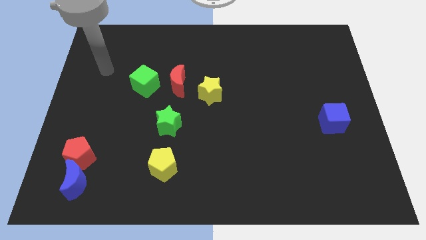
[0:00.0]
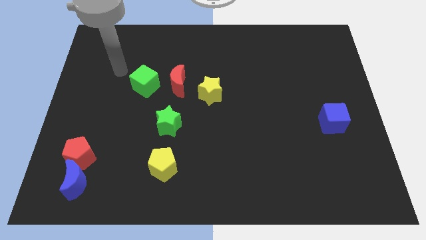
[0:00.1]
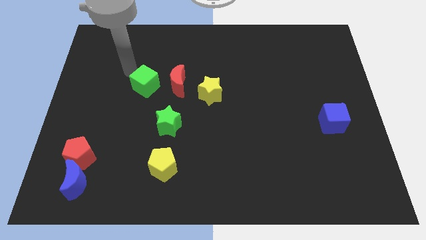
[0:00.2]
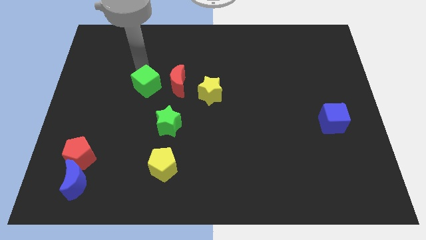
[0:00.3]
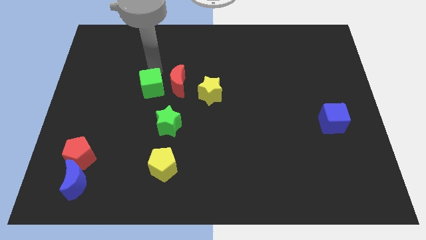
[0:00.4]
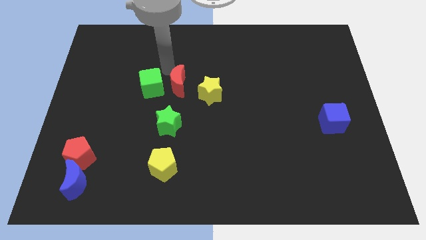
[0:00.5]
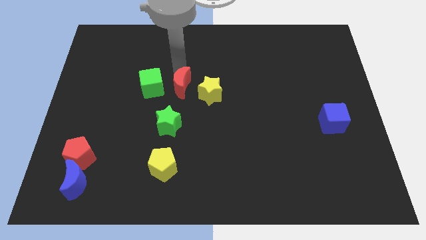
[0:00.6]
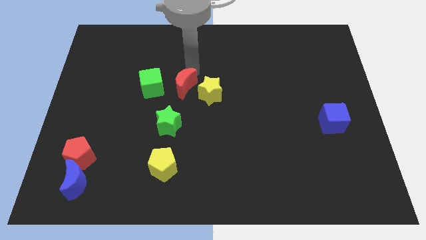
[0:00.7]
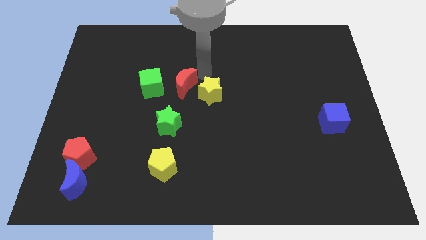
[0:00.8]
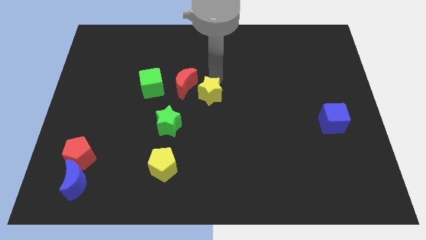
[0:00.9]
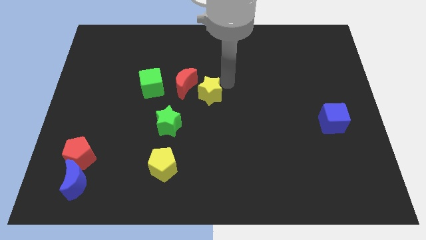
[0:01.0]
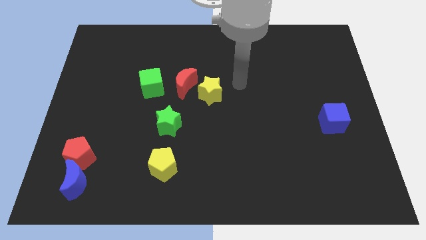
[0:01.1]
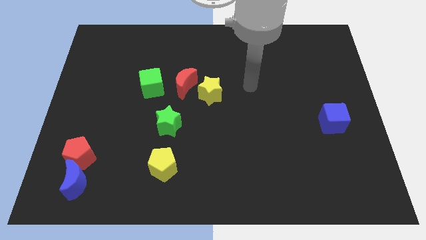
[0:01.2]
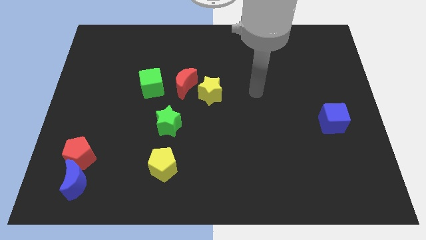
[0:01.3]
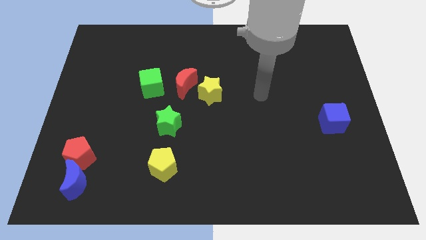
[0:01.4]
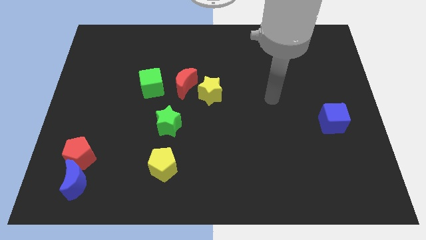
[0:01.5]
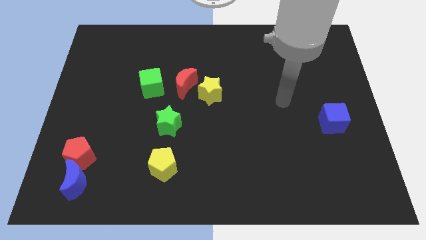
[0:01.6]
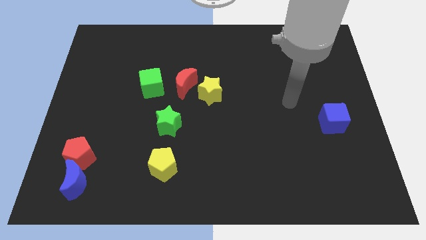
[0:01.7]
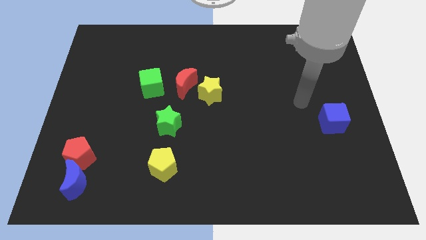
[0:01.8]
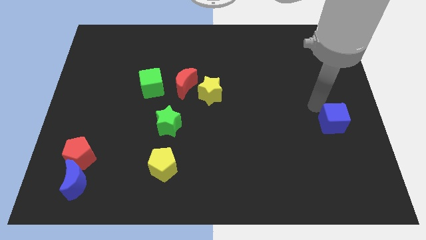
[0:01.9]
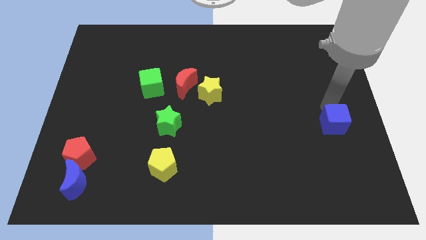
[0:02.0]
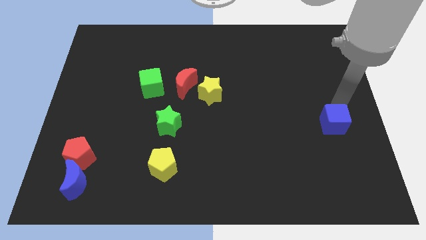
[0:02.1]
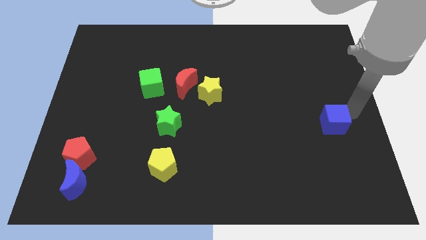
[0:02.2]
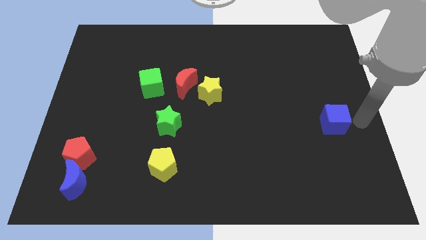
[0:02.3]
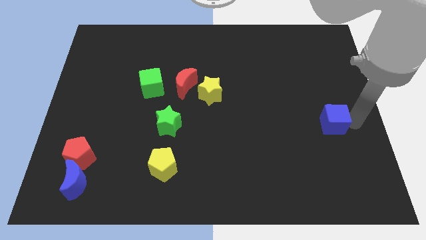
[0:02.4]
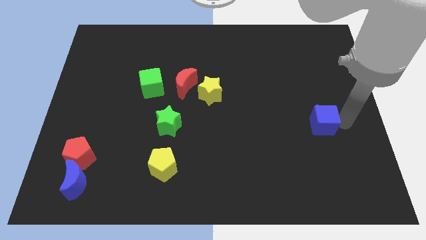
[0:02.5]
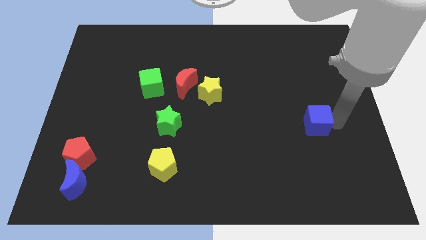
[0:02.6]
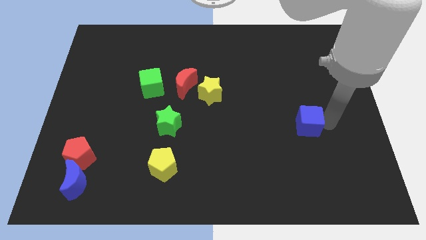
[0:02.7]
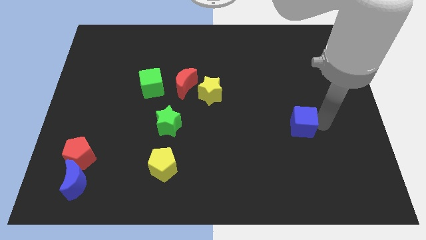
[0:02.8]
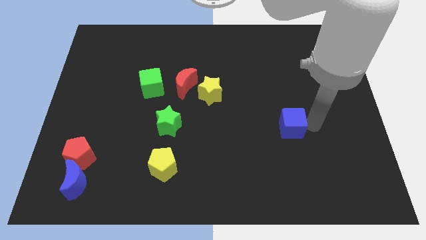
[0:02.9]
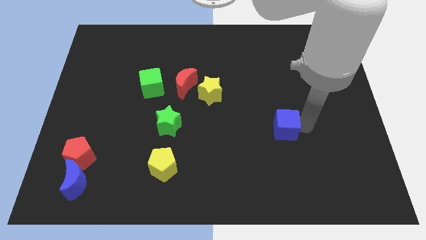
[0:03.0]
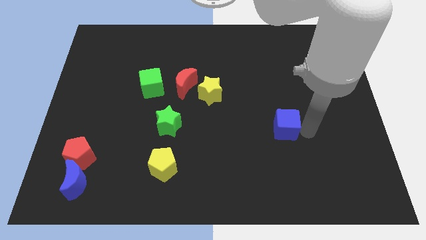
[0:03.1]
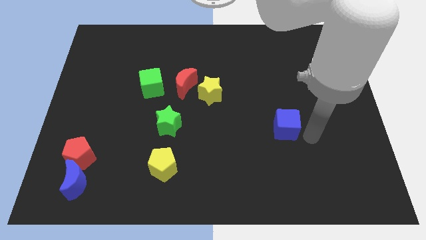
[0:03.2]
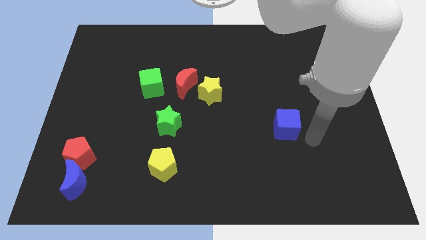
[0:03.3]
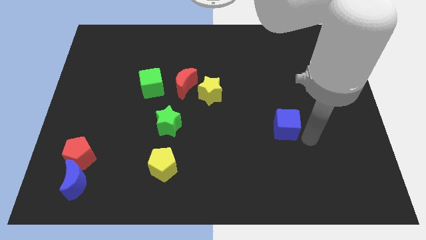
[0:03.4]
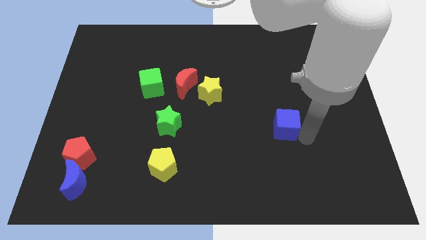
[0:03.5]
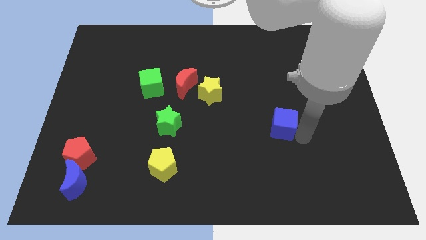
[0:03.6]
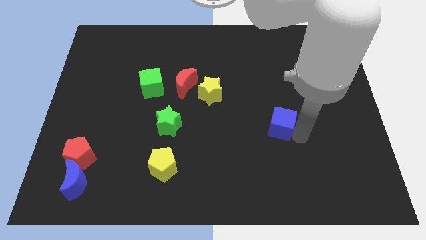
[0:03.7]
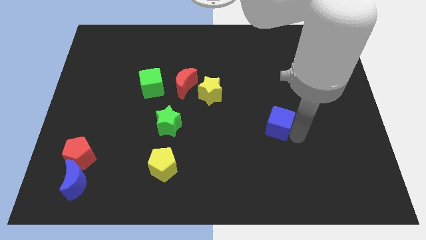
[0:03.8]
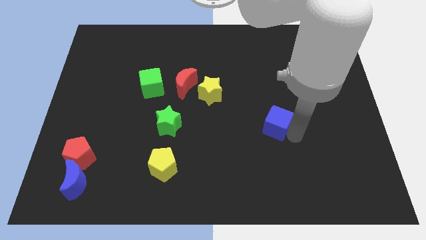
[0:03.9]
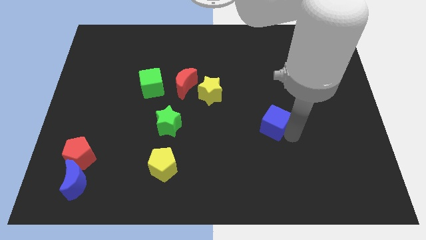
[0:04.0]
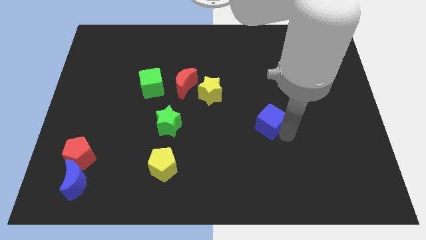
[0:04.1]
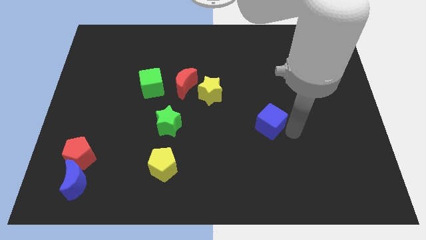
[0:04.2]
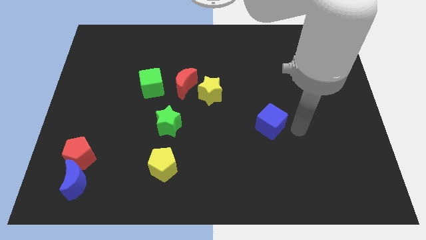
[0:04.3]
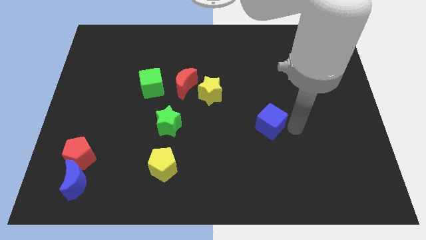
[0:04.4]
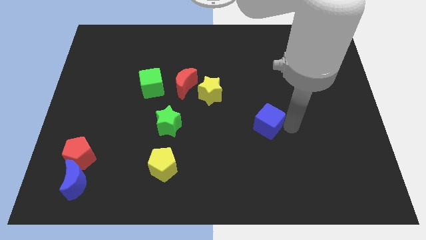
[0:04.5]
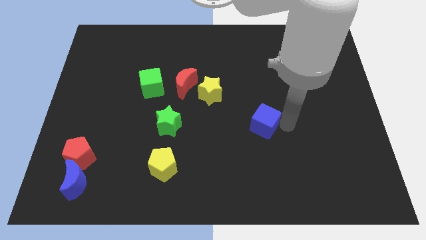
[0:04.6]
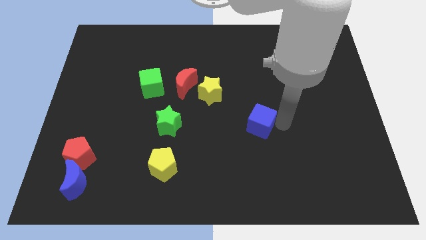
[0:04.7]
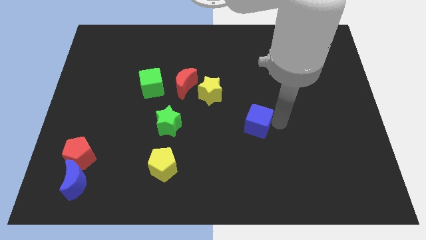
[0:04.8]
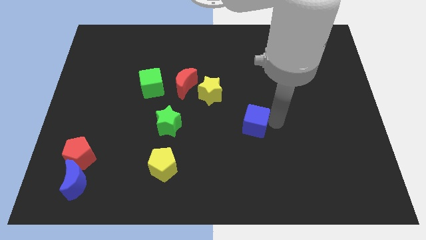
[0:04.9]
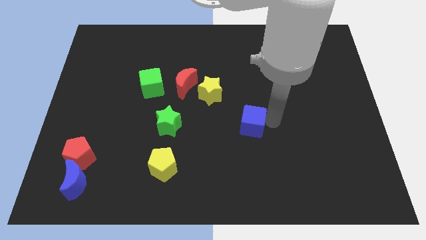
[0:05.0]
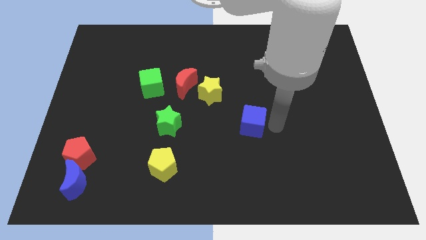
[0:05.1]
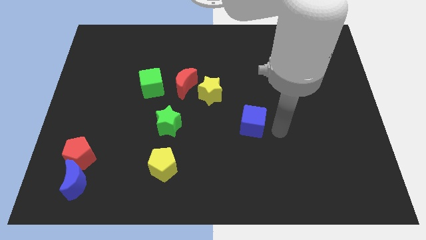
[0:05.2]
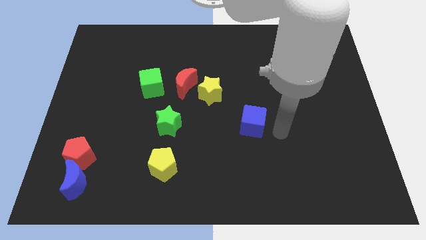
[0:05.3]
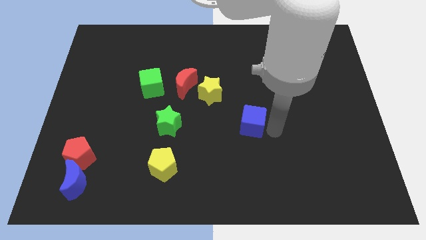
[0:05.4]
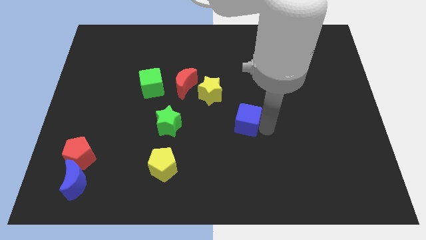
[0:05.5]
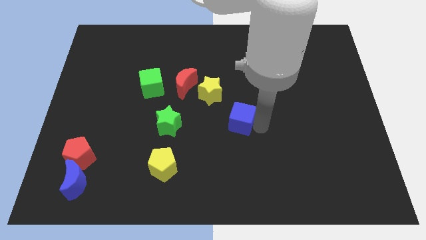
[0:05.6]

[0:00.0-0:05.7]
push the blue cube to the left

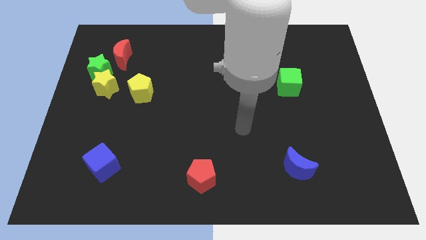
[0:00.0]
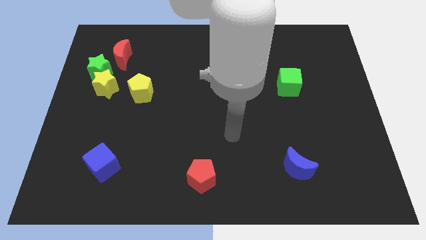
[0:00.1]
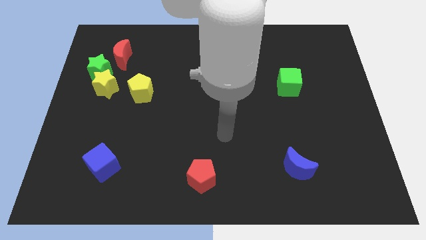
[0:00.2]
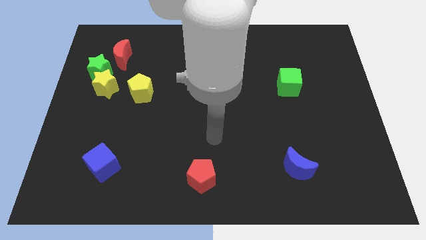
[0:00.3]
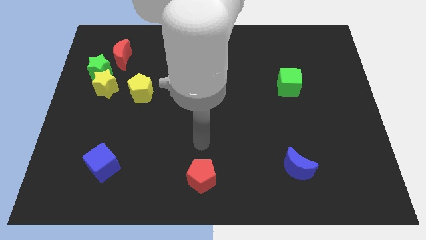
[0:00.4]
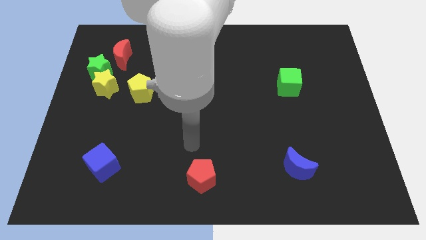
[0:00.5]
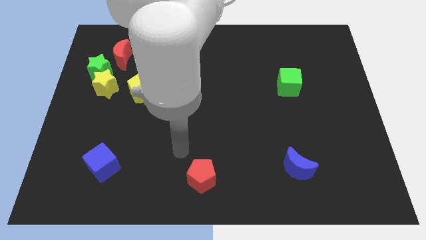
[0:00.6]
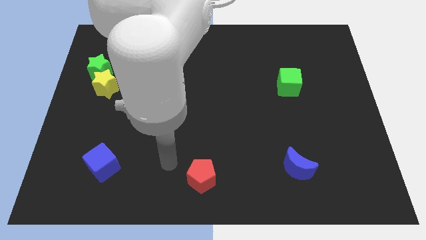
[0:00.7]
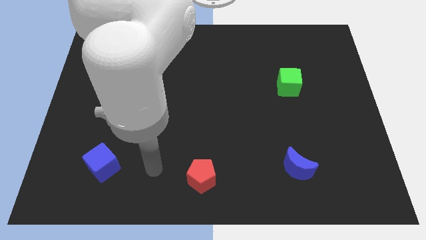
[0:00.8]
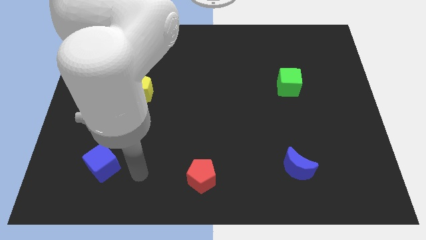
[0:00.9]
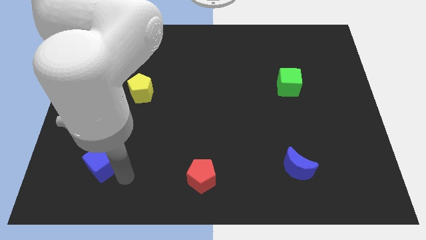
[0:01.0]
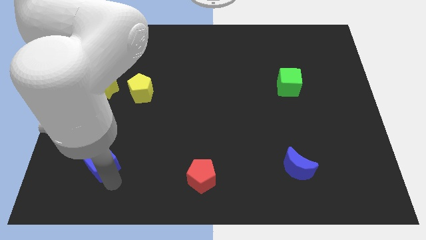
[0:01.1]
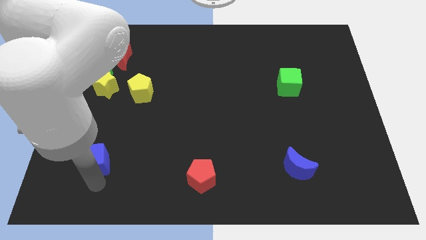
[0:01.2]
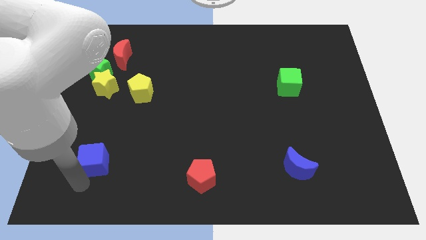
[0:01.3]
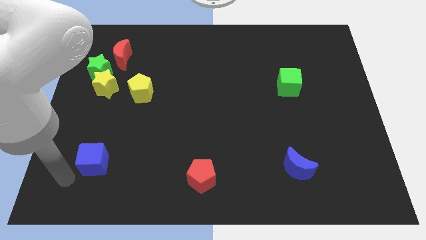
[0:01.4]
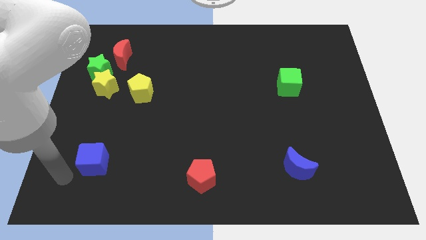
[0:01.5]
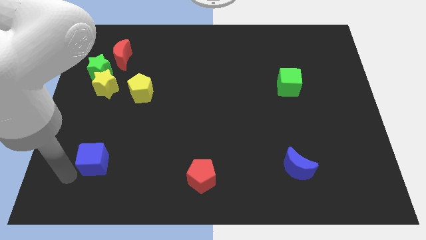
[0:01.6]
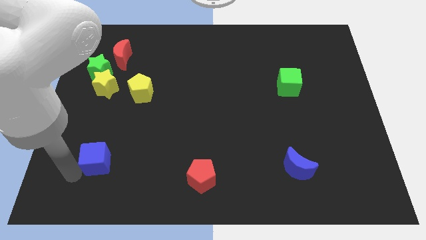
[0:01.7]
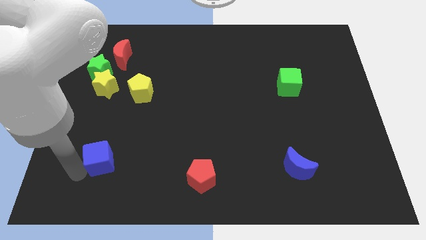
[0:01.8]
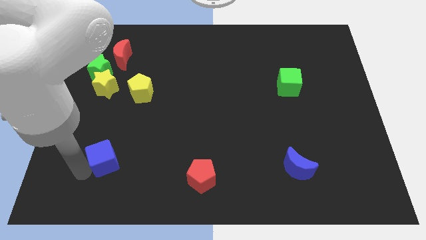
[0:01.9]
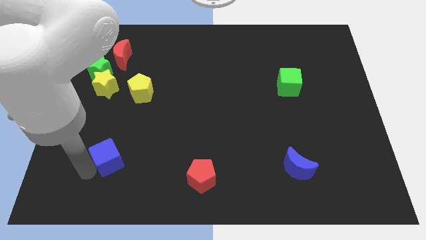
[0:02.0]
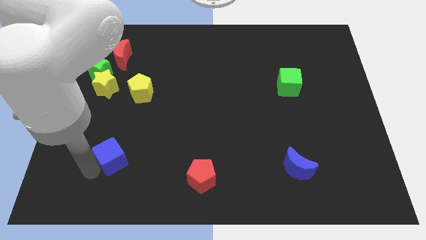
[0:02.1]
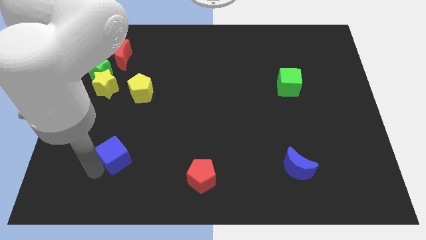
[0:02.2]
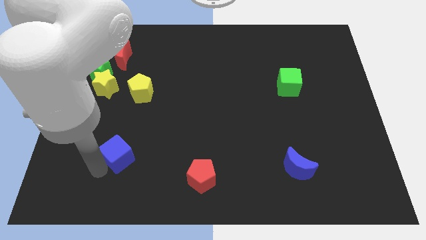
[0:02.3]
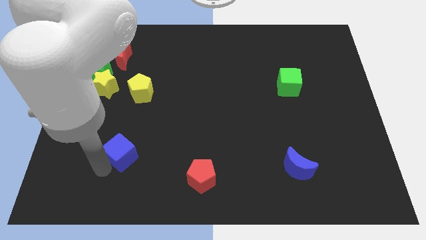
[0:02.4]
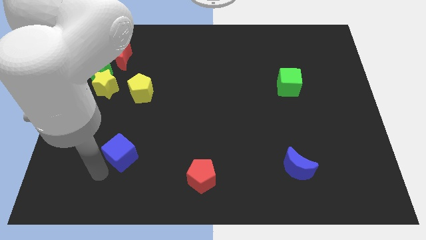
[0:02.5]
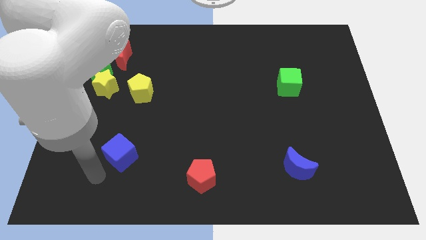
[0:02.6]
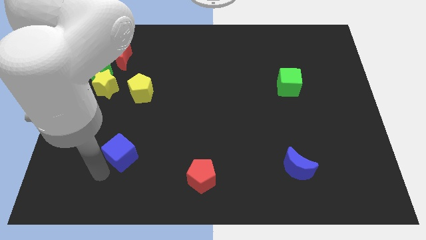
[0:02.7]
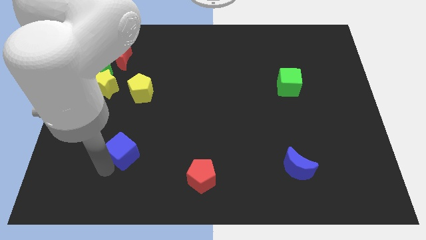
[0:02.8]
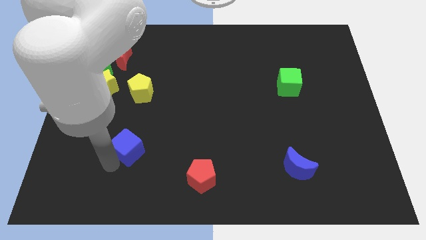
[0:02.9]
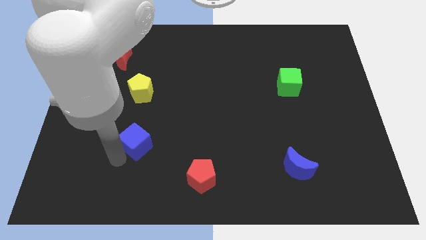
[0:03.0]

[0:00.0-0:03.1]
slightly push the blue cube diagonally up and right
